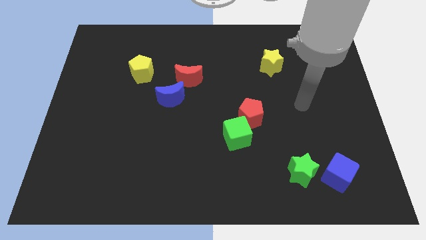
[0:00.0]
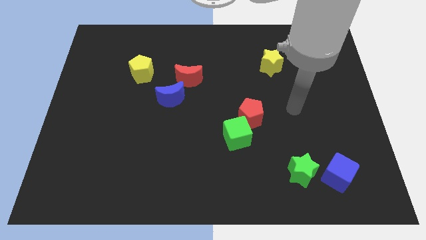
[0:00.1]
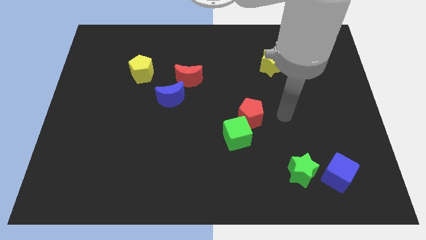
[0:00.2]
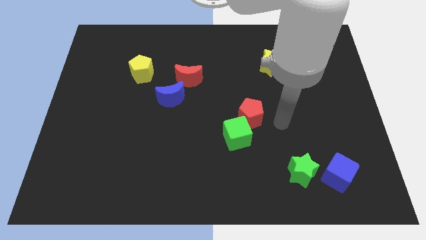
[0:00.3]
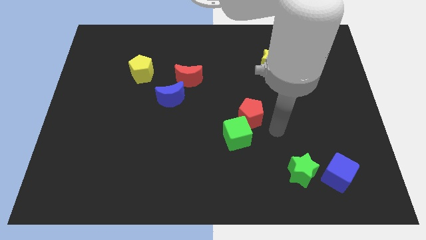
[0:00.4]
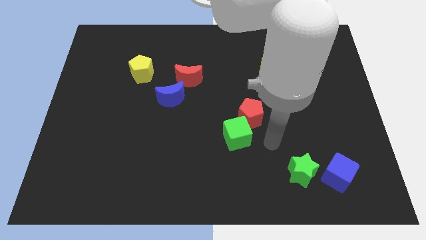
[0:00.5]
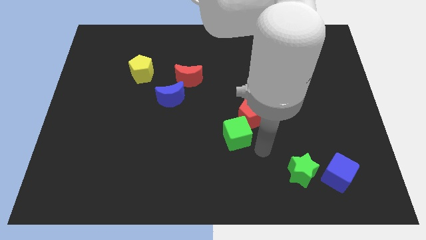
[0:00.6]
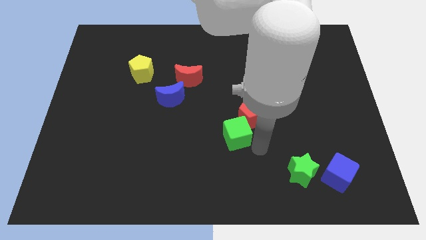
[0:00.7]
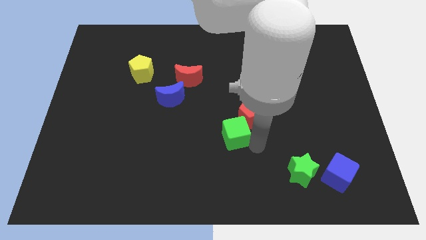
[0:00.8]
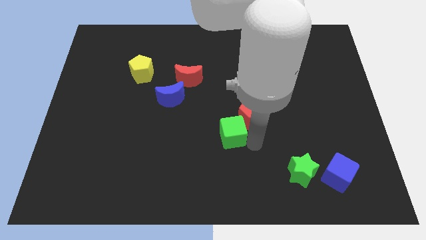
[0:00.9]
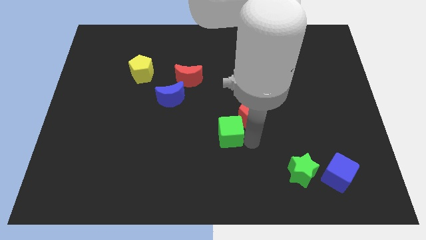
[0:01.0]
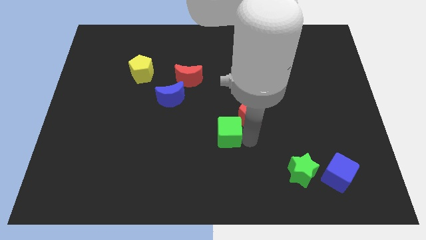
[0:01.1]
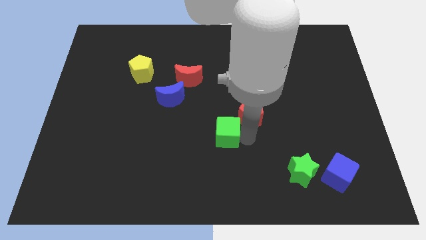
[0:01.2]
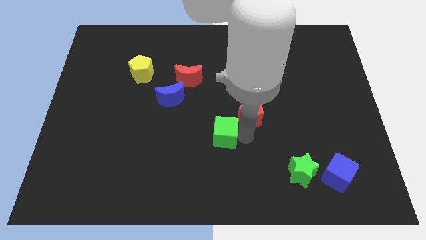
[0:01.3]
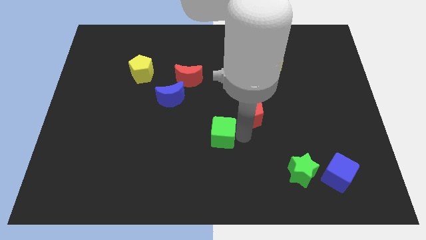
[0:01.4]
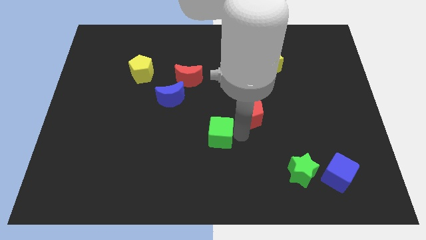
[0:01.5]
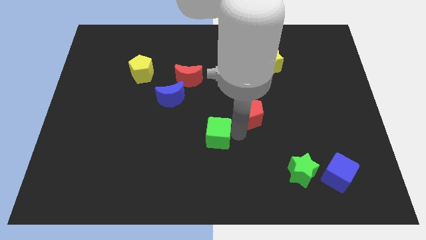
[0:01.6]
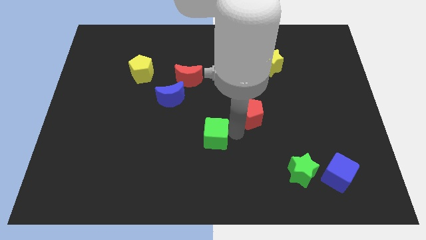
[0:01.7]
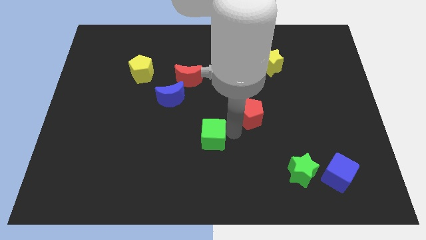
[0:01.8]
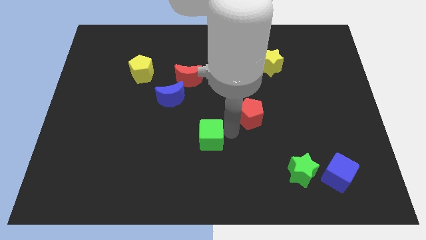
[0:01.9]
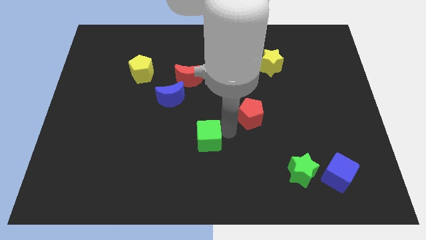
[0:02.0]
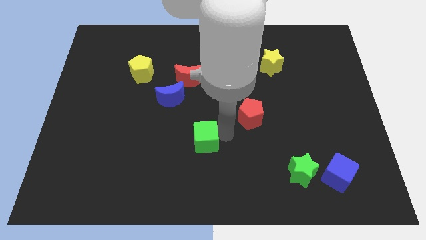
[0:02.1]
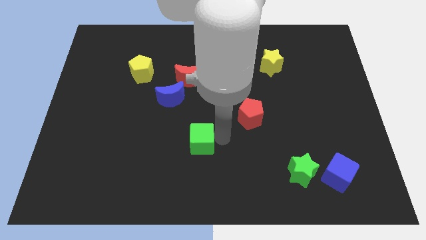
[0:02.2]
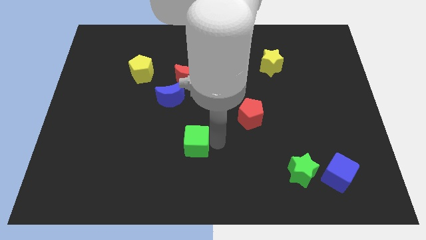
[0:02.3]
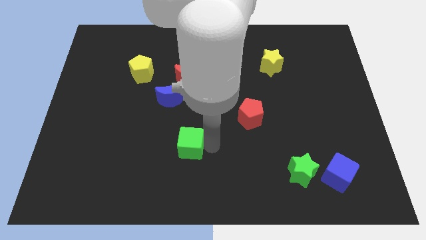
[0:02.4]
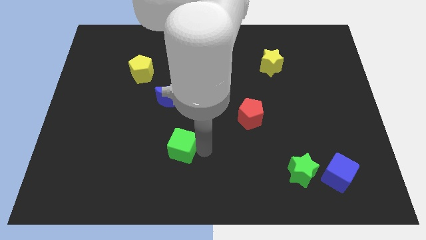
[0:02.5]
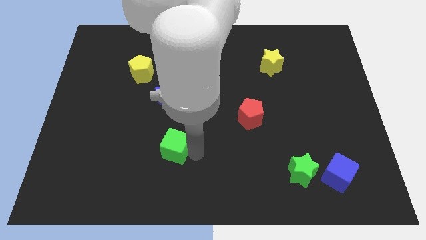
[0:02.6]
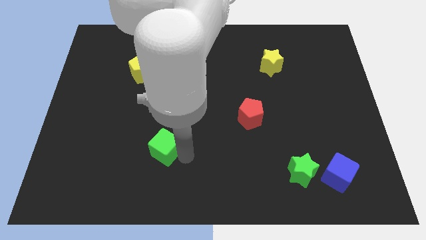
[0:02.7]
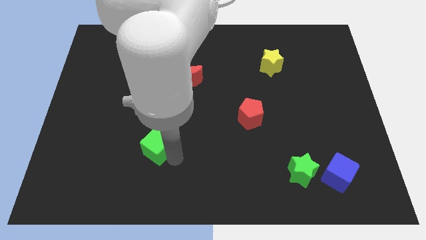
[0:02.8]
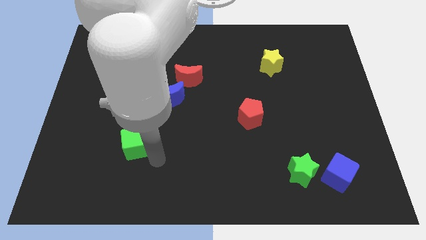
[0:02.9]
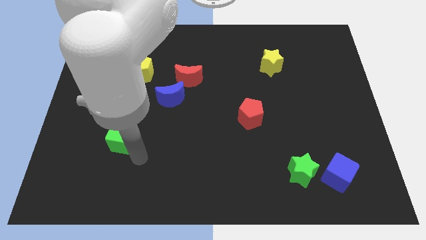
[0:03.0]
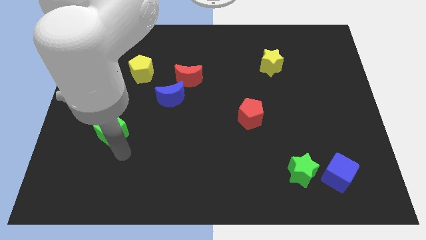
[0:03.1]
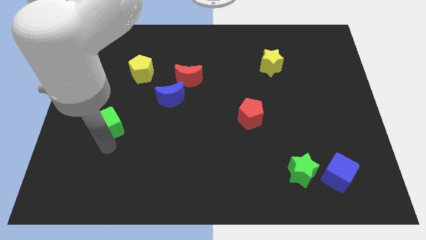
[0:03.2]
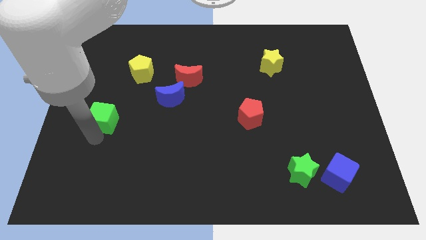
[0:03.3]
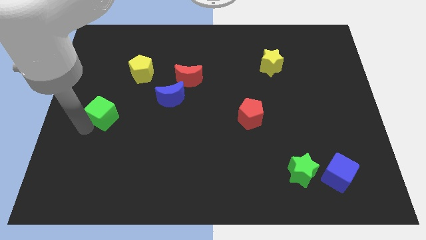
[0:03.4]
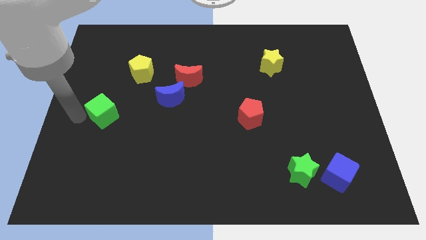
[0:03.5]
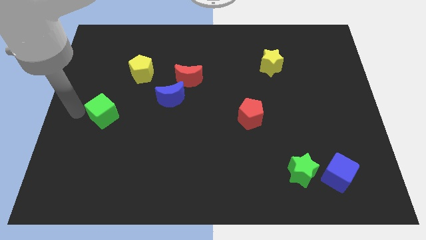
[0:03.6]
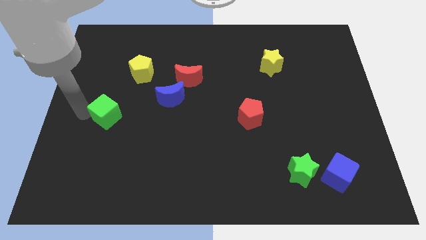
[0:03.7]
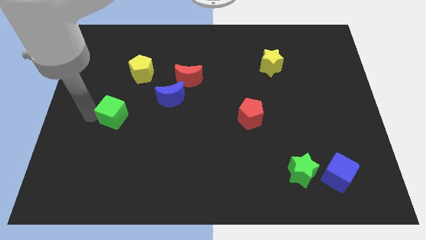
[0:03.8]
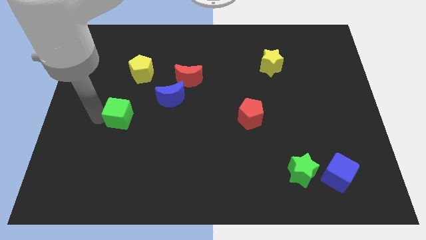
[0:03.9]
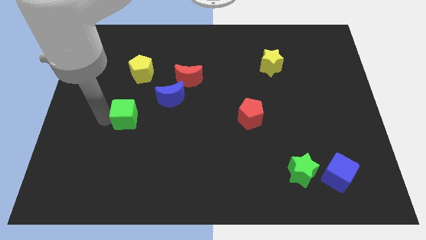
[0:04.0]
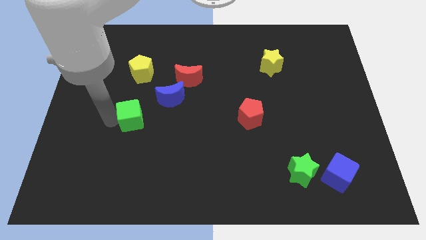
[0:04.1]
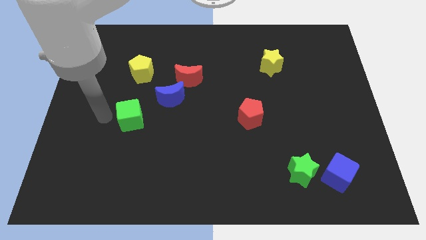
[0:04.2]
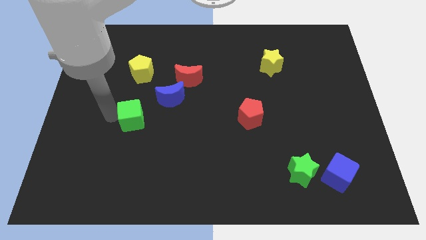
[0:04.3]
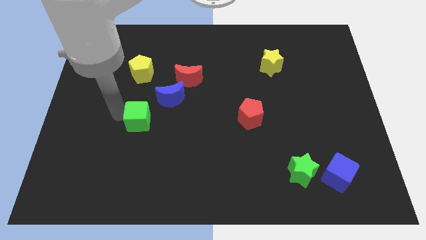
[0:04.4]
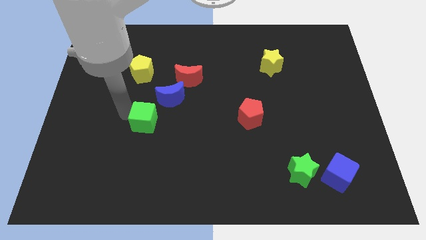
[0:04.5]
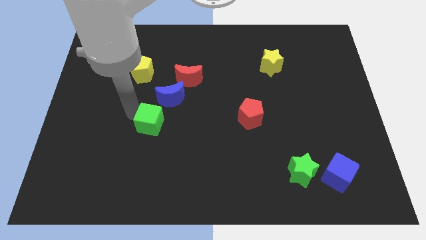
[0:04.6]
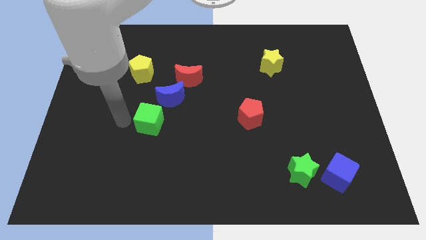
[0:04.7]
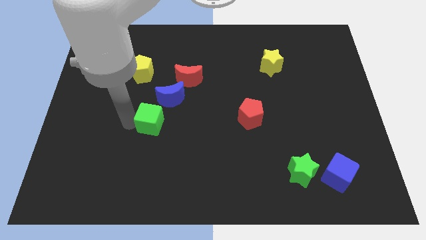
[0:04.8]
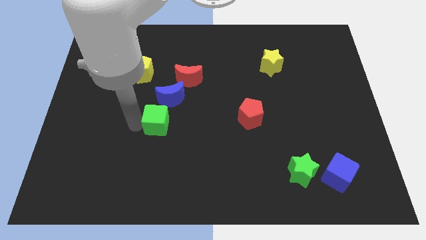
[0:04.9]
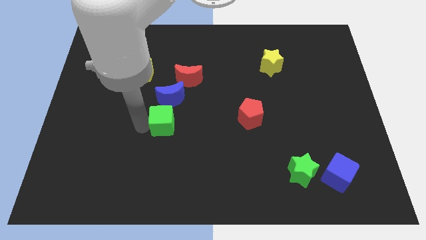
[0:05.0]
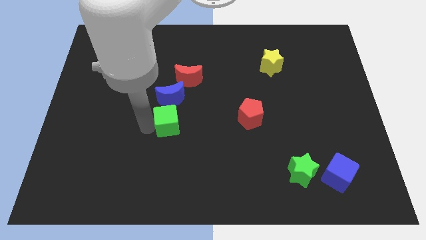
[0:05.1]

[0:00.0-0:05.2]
put the green cube below the red moon

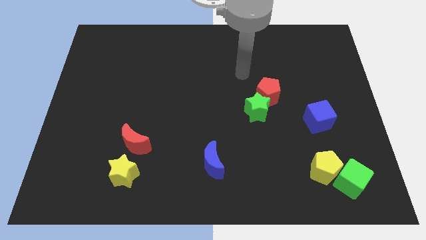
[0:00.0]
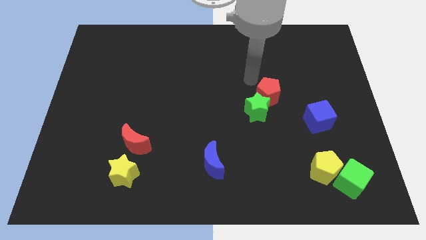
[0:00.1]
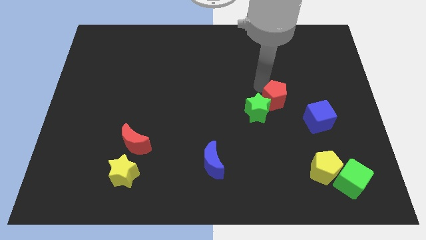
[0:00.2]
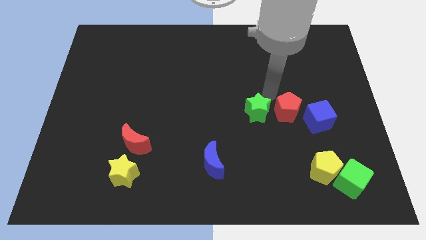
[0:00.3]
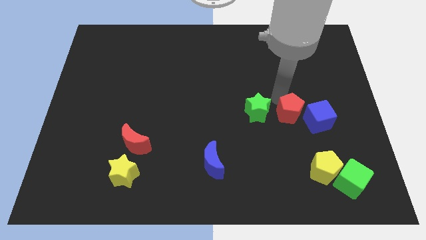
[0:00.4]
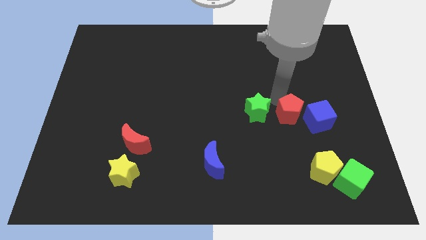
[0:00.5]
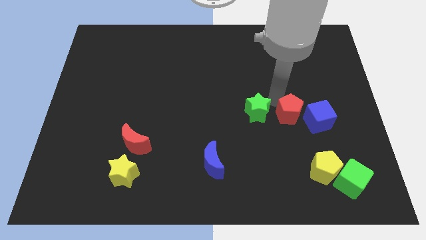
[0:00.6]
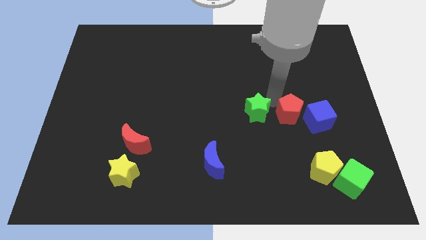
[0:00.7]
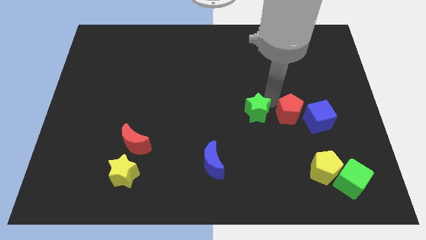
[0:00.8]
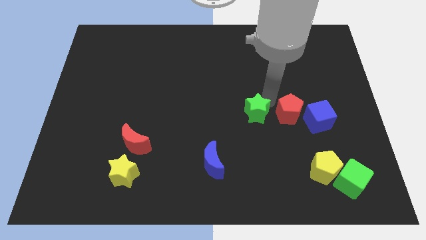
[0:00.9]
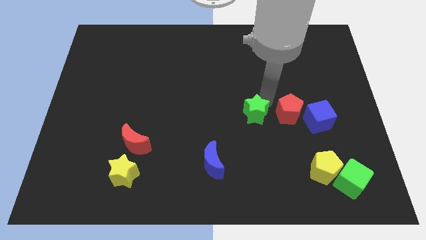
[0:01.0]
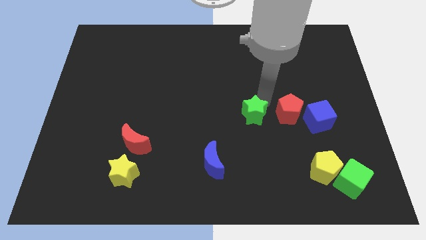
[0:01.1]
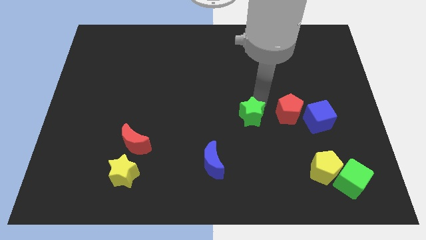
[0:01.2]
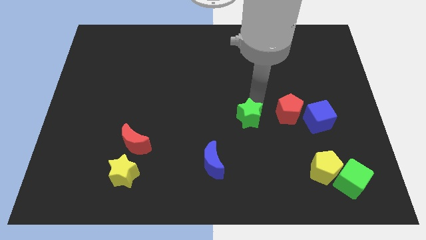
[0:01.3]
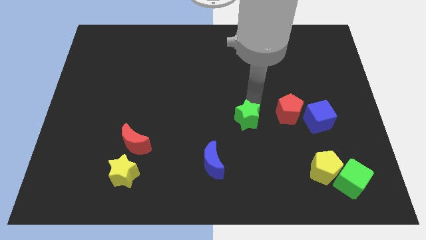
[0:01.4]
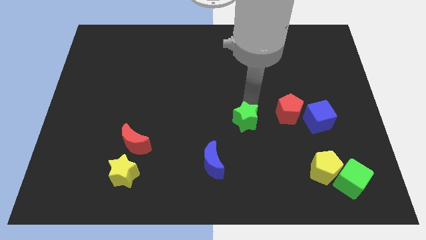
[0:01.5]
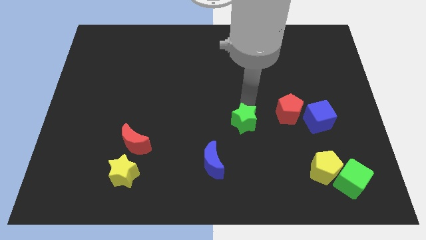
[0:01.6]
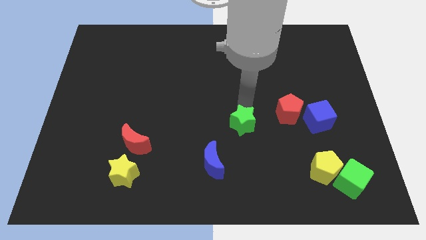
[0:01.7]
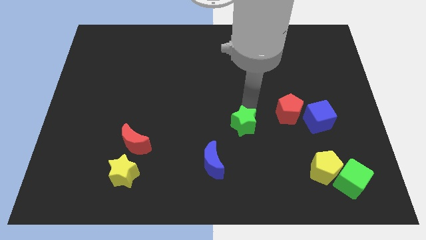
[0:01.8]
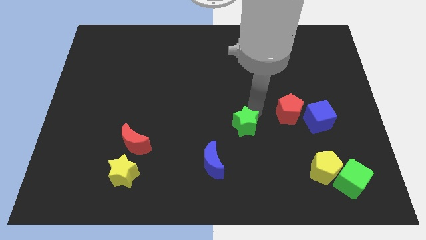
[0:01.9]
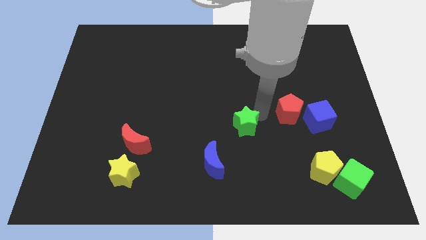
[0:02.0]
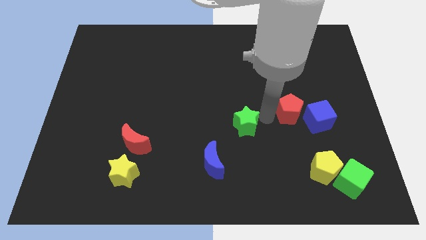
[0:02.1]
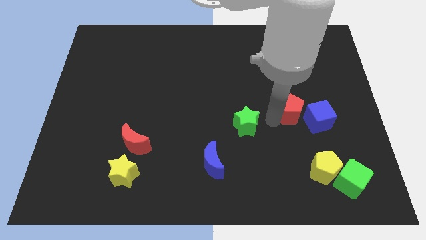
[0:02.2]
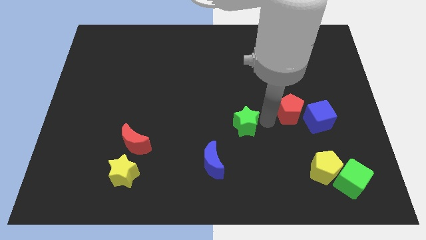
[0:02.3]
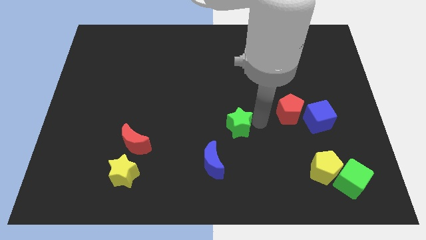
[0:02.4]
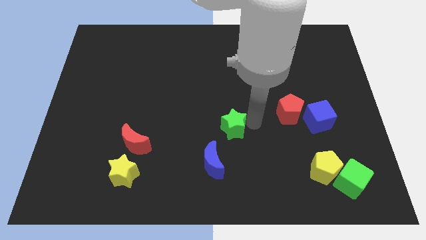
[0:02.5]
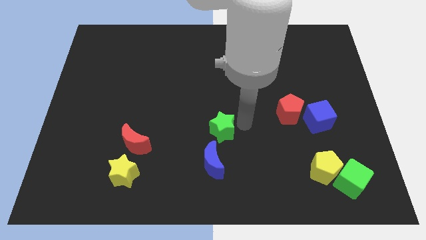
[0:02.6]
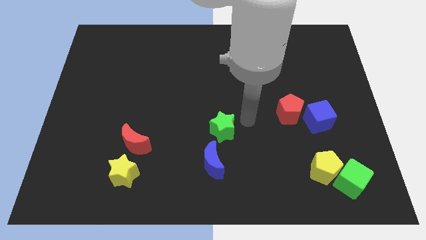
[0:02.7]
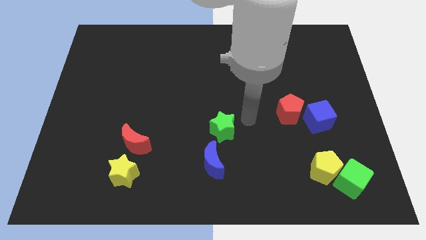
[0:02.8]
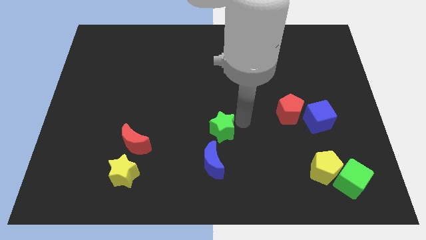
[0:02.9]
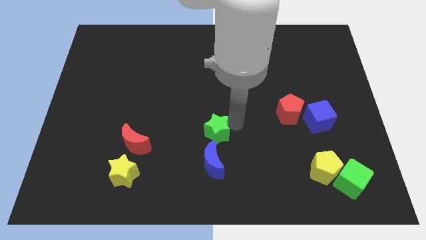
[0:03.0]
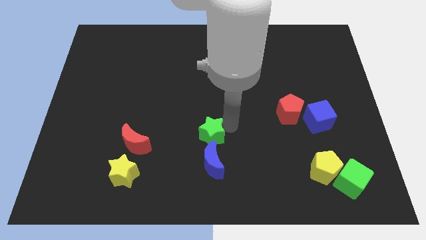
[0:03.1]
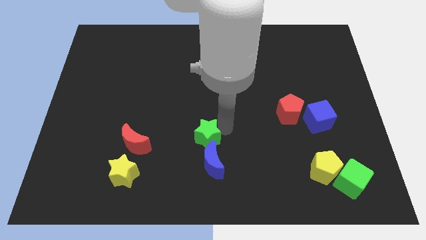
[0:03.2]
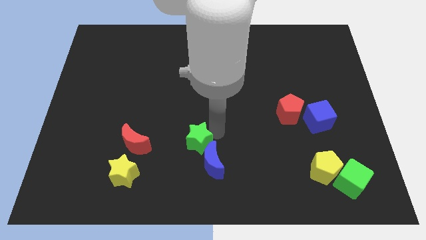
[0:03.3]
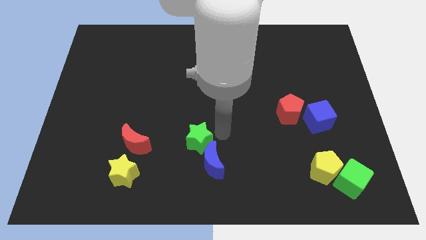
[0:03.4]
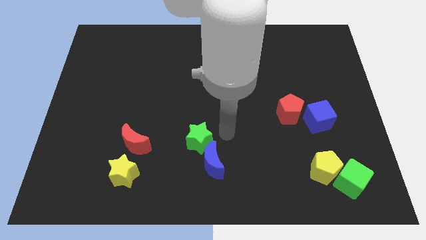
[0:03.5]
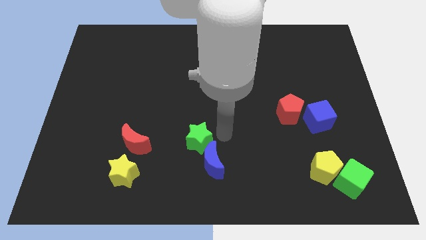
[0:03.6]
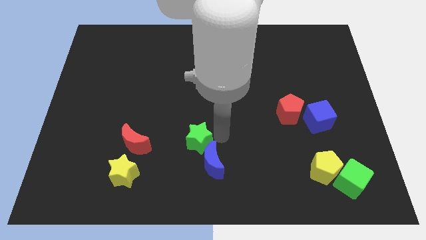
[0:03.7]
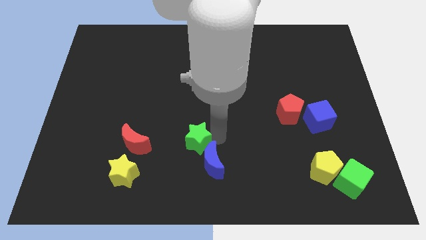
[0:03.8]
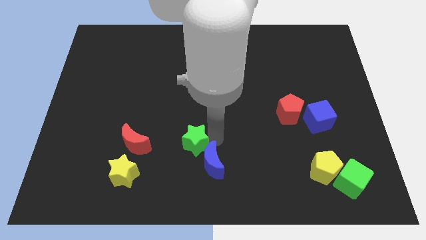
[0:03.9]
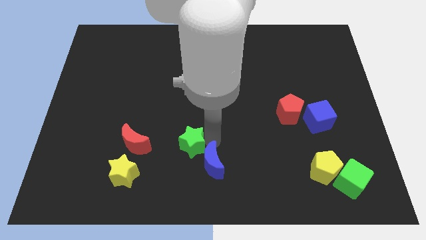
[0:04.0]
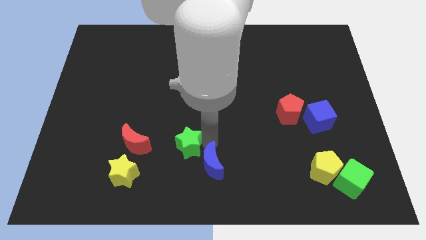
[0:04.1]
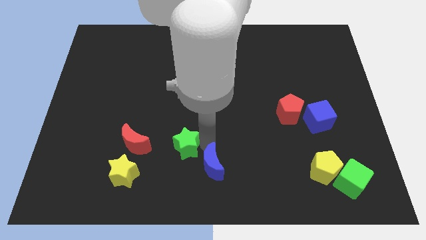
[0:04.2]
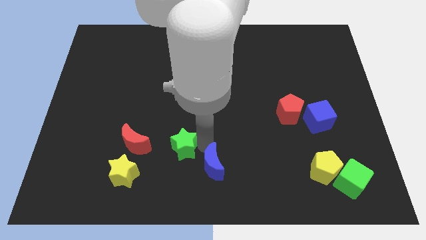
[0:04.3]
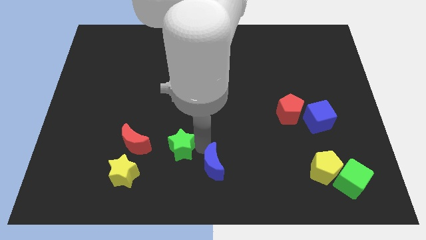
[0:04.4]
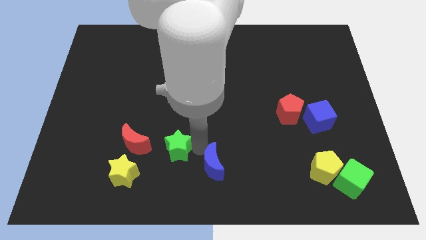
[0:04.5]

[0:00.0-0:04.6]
slide the green star diagonally up and to the right of the yellow star
